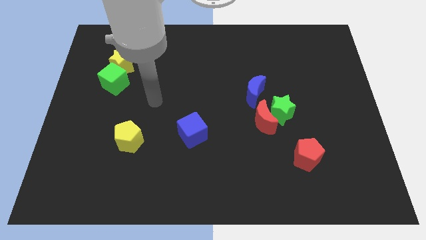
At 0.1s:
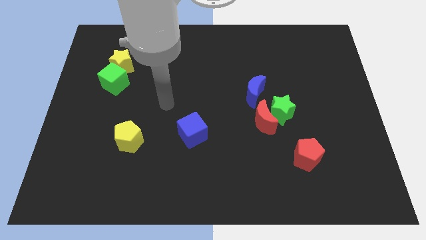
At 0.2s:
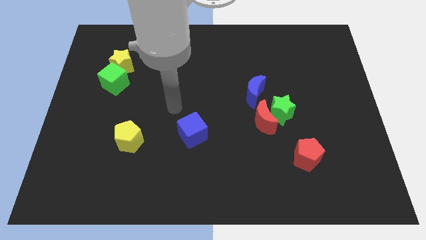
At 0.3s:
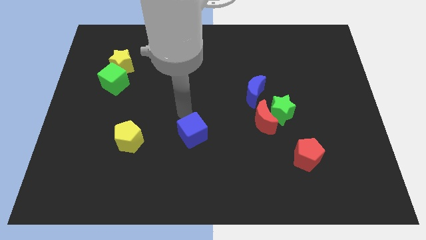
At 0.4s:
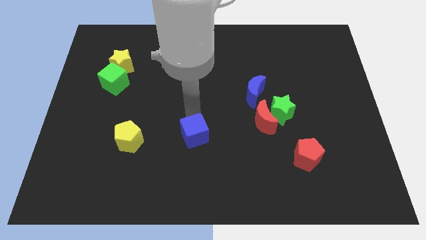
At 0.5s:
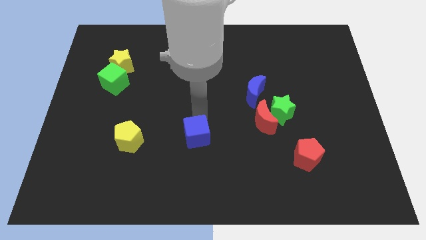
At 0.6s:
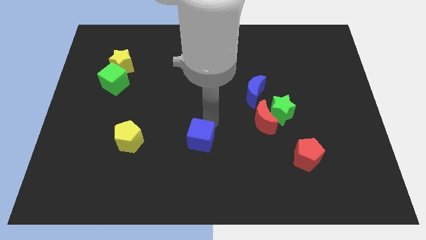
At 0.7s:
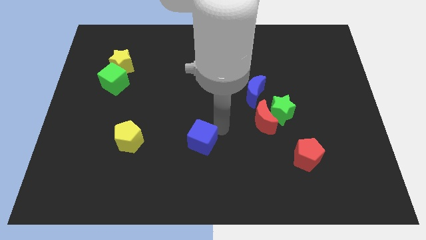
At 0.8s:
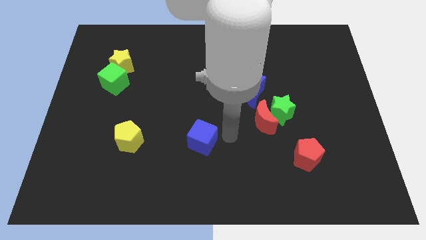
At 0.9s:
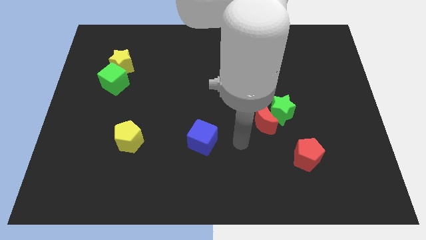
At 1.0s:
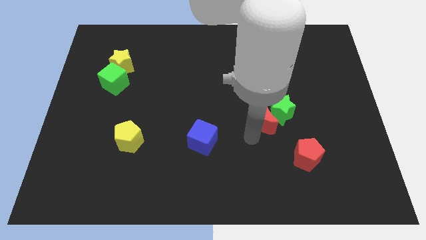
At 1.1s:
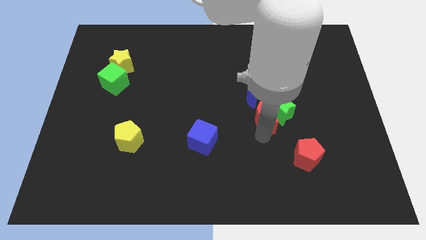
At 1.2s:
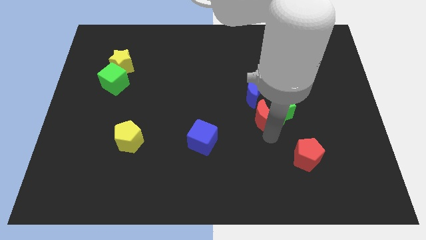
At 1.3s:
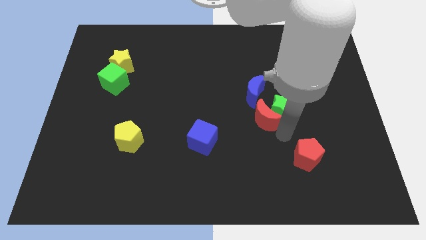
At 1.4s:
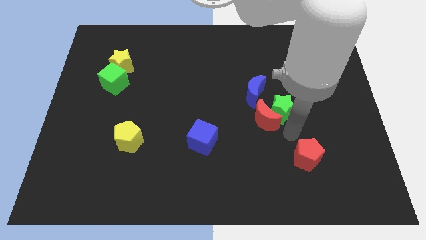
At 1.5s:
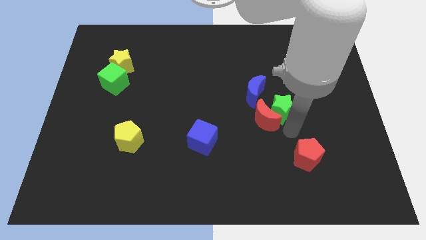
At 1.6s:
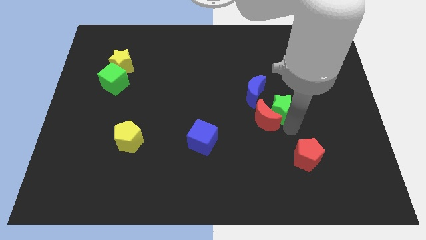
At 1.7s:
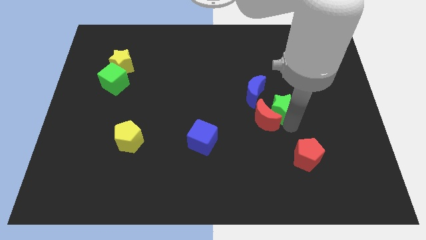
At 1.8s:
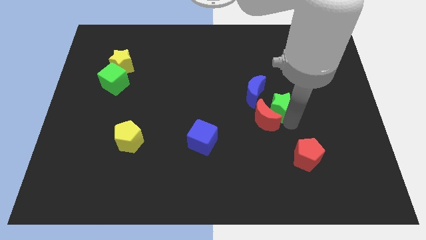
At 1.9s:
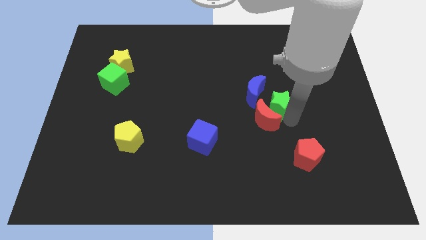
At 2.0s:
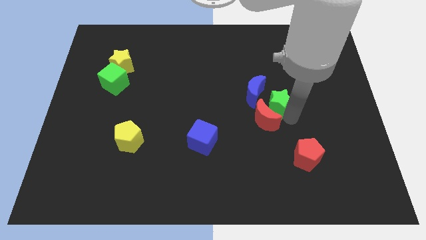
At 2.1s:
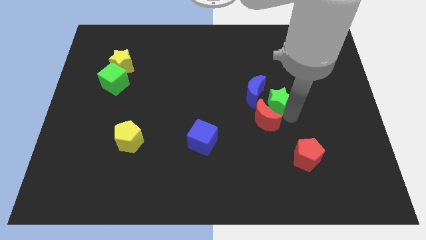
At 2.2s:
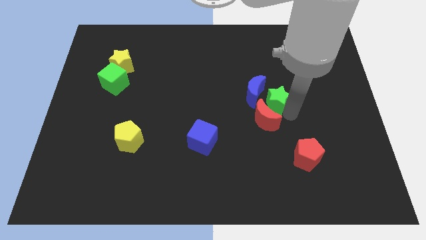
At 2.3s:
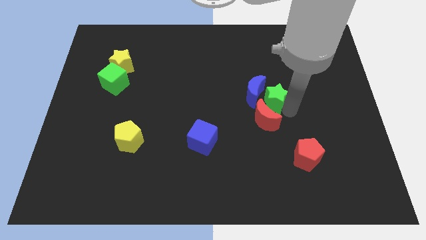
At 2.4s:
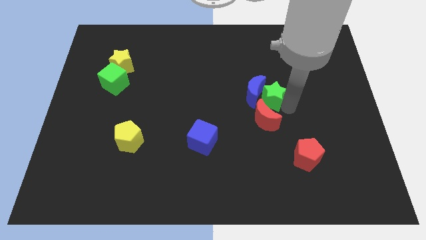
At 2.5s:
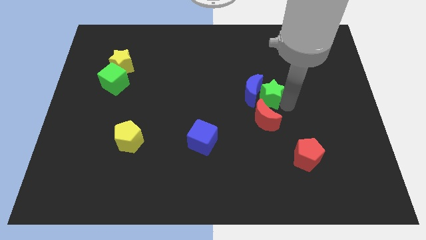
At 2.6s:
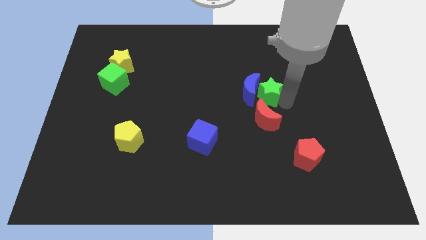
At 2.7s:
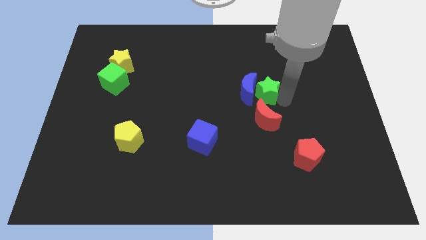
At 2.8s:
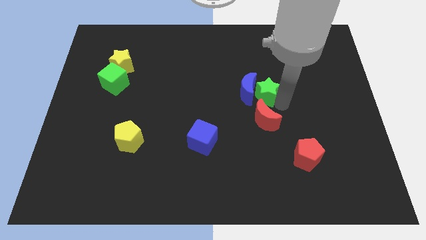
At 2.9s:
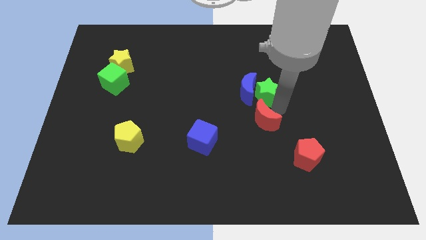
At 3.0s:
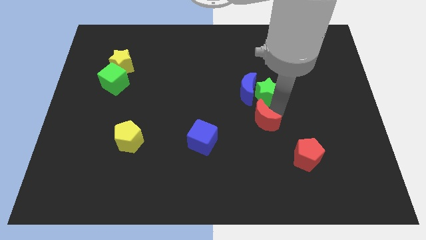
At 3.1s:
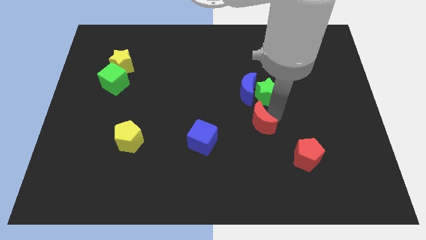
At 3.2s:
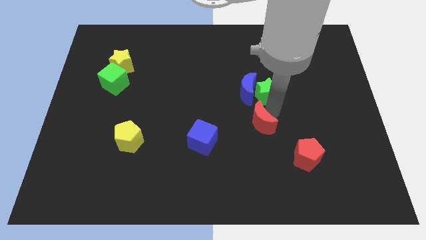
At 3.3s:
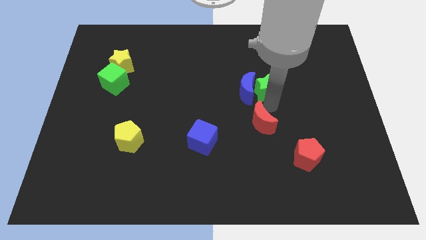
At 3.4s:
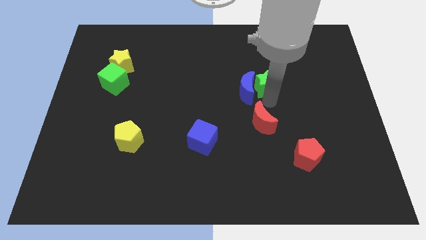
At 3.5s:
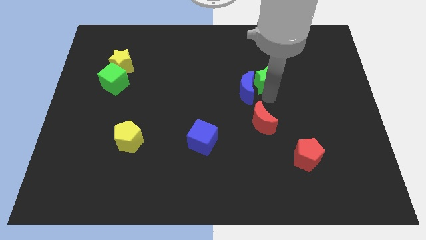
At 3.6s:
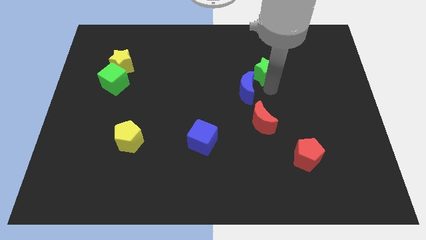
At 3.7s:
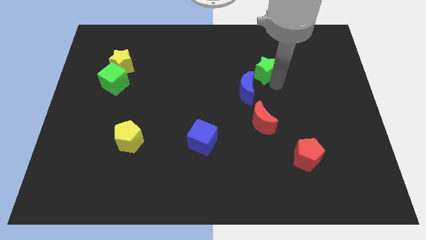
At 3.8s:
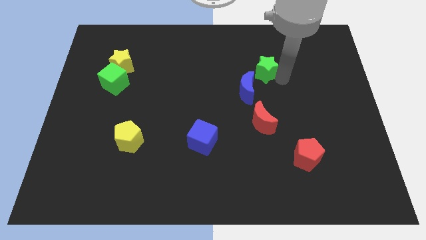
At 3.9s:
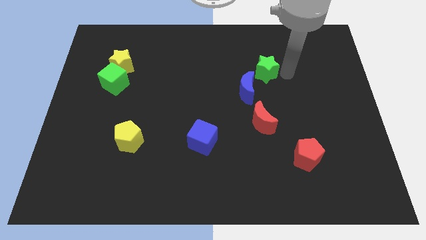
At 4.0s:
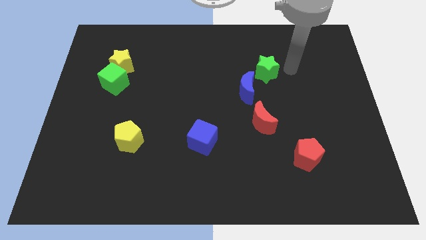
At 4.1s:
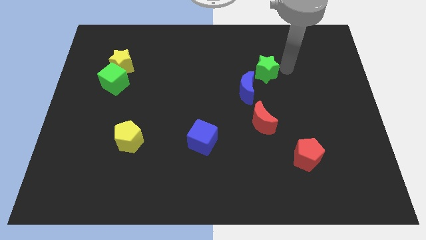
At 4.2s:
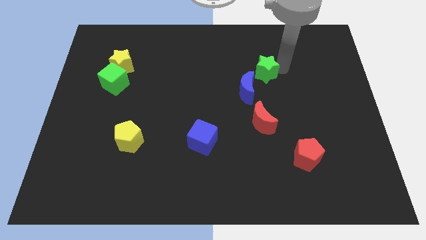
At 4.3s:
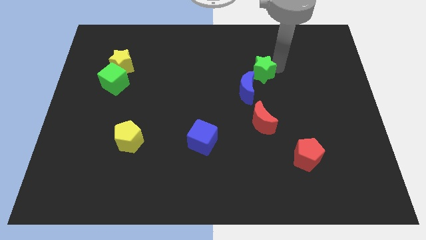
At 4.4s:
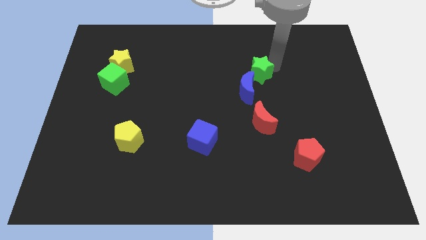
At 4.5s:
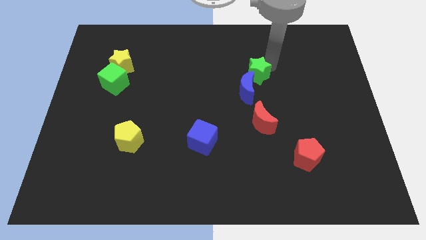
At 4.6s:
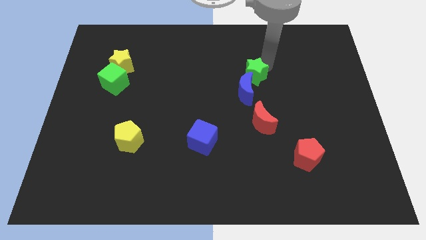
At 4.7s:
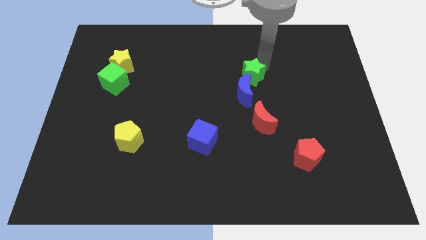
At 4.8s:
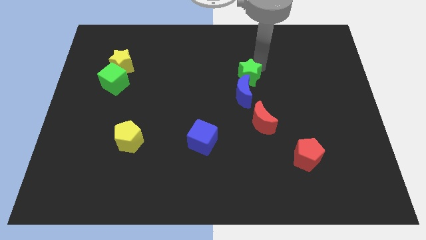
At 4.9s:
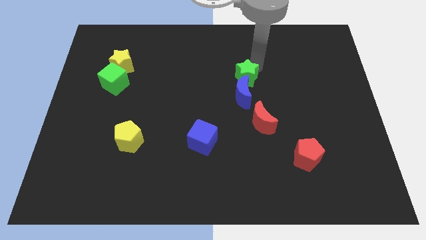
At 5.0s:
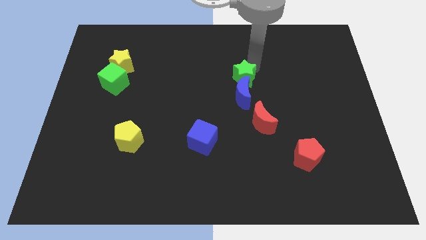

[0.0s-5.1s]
push the green star to the top left of the blue moon

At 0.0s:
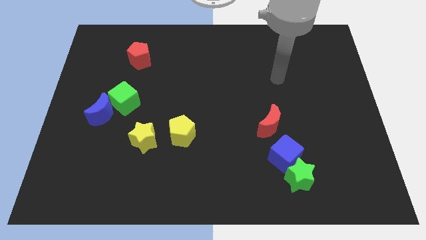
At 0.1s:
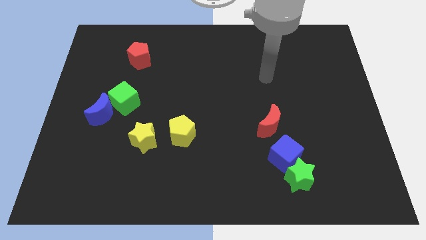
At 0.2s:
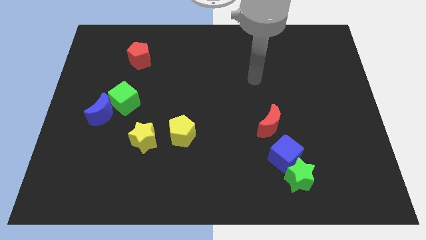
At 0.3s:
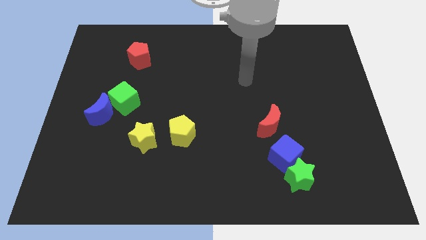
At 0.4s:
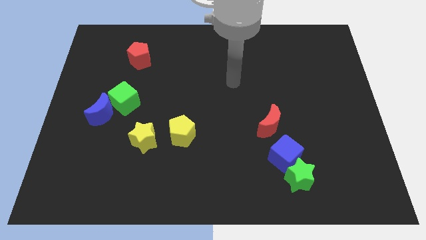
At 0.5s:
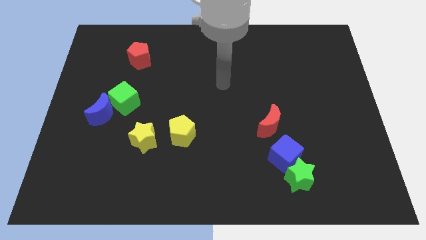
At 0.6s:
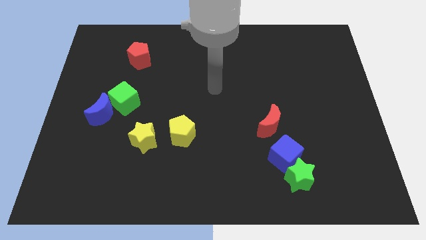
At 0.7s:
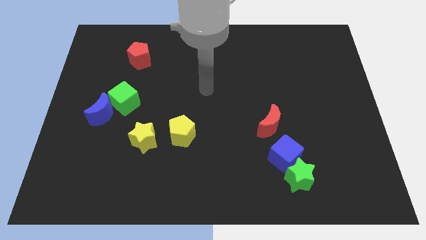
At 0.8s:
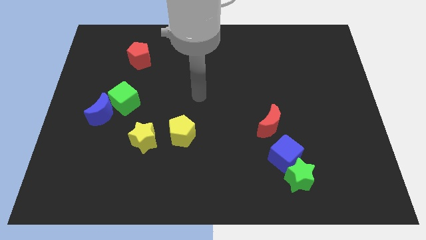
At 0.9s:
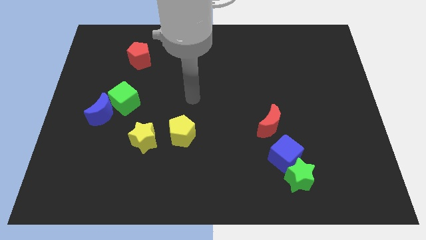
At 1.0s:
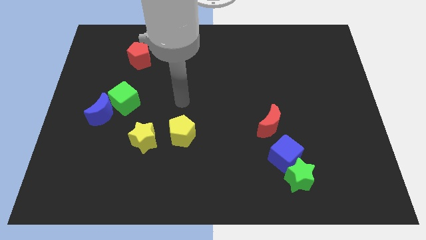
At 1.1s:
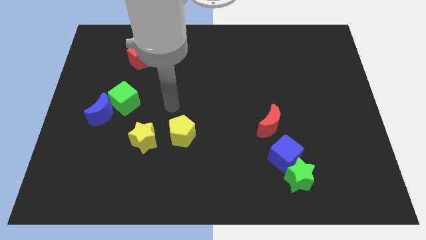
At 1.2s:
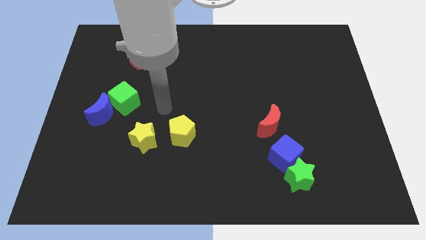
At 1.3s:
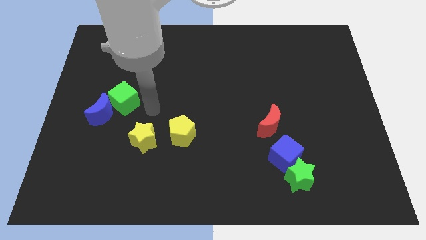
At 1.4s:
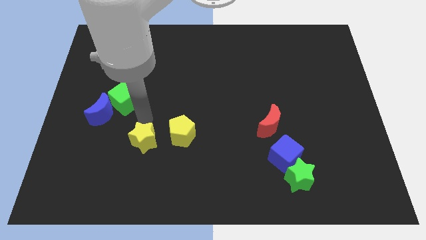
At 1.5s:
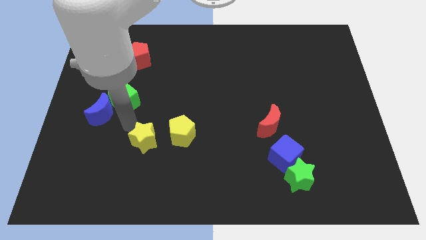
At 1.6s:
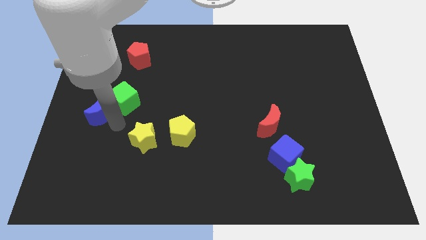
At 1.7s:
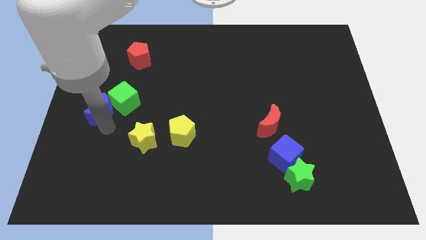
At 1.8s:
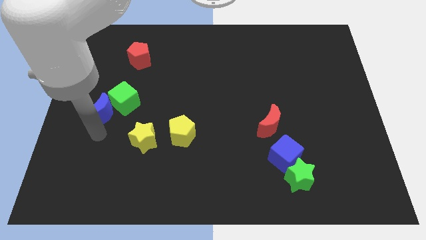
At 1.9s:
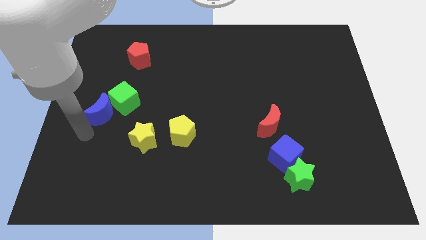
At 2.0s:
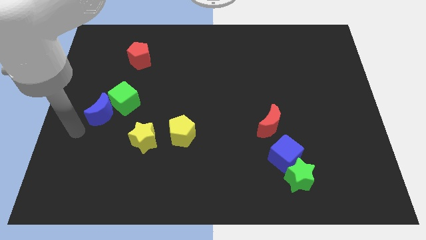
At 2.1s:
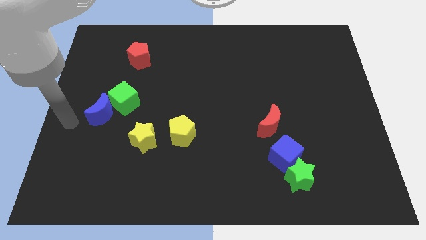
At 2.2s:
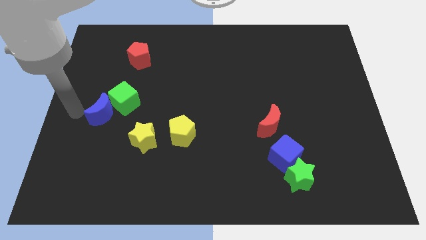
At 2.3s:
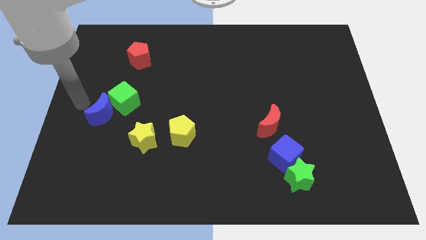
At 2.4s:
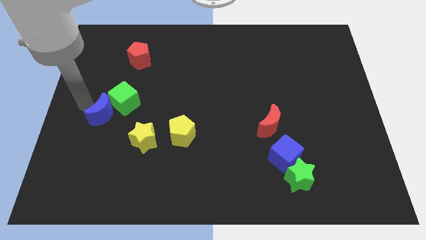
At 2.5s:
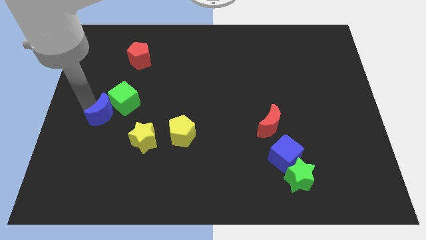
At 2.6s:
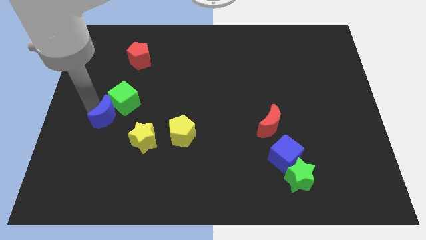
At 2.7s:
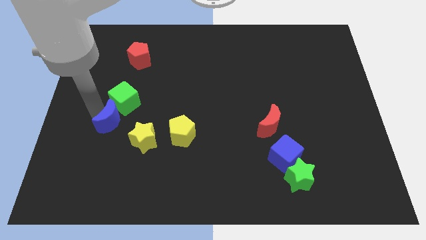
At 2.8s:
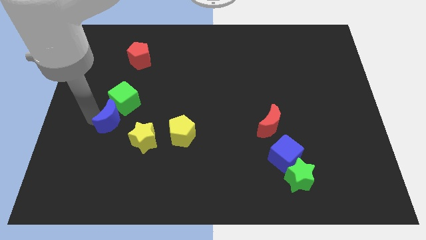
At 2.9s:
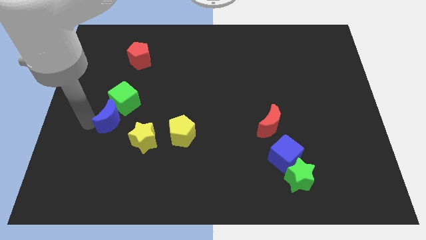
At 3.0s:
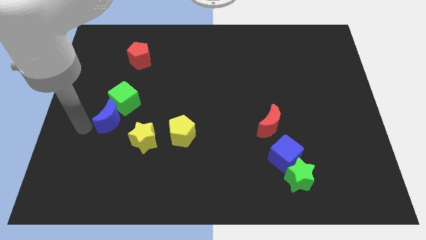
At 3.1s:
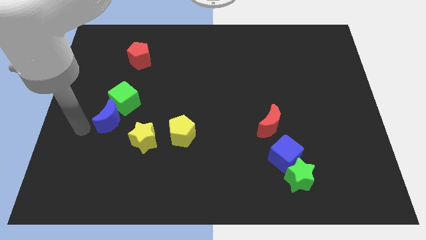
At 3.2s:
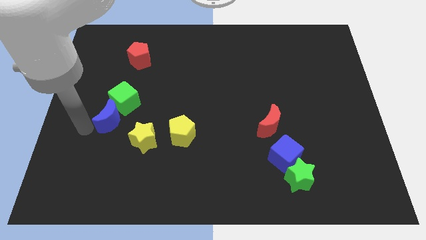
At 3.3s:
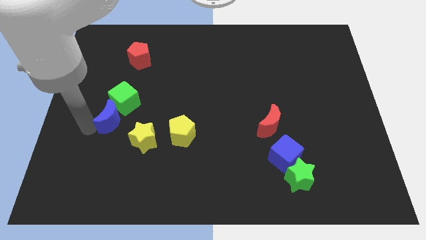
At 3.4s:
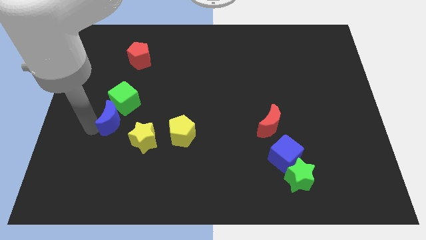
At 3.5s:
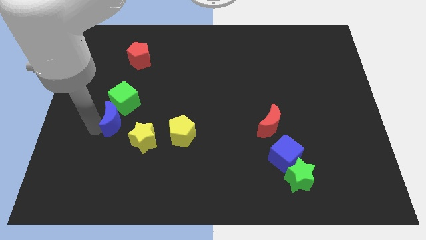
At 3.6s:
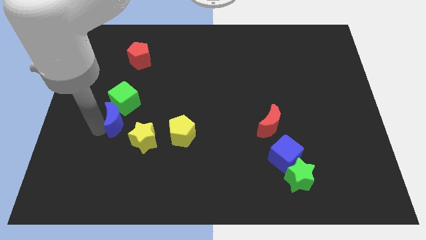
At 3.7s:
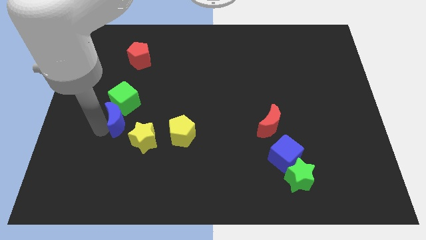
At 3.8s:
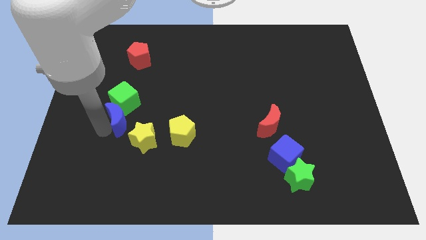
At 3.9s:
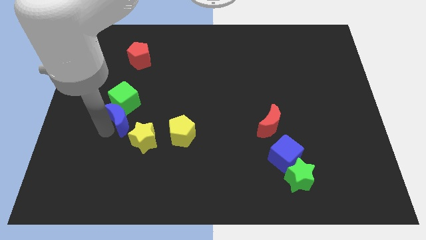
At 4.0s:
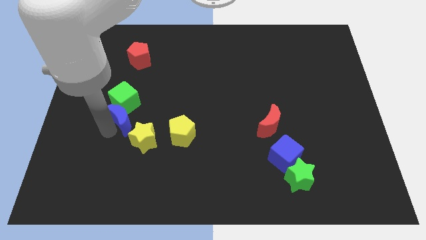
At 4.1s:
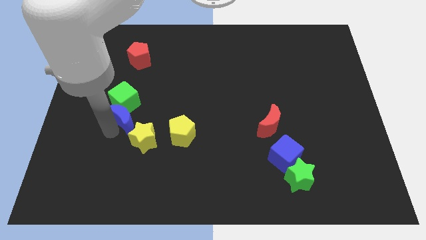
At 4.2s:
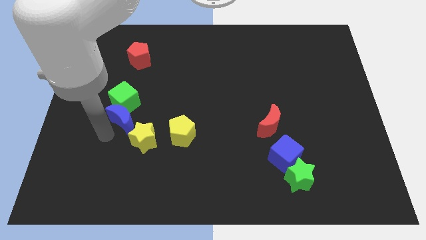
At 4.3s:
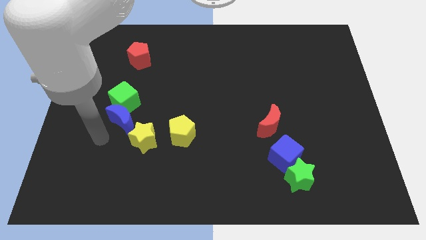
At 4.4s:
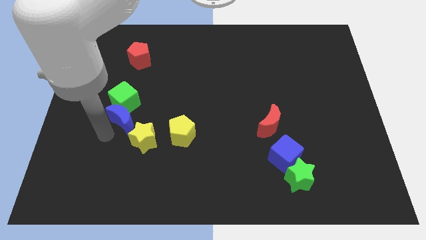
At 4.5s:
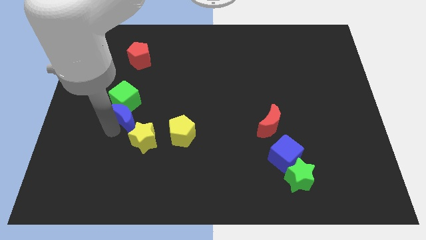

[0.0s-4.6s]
slide the blue moon to the top of the yellow star
